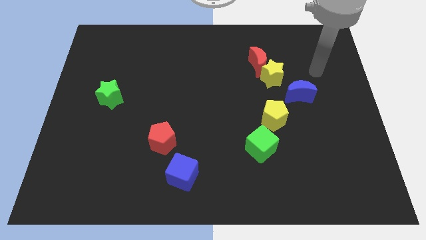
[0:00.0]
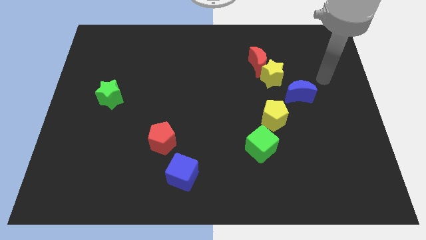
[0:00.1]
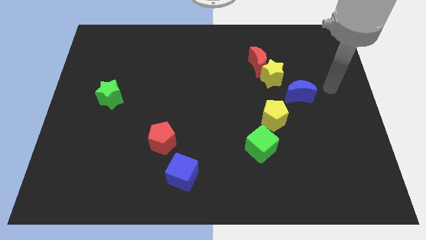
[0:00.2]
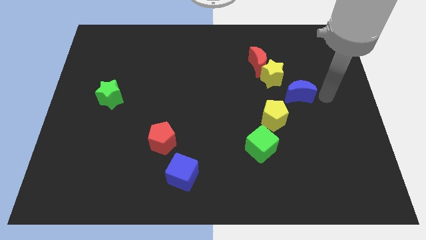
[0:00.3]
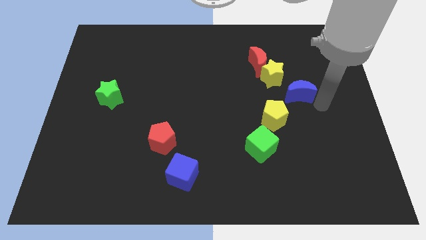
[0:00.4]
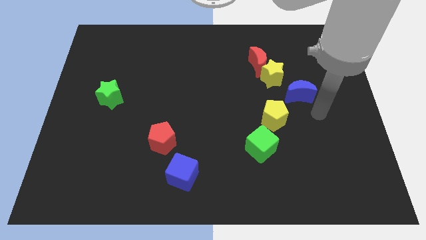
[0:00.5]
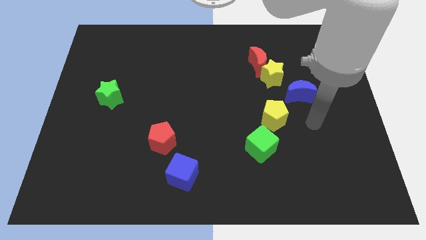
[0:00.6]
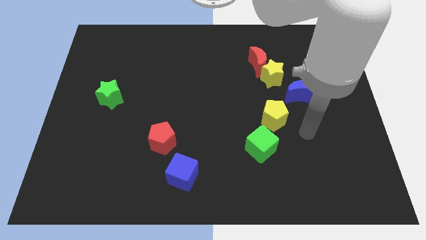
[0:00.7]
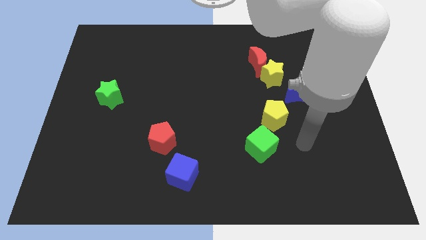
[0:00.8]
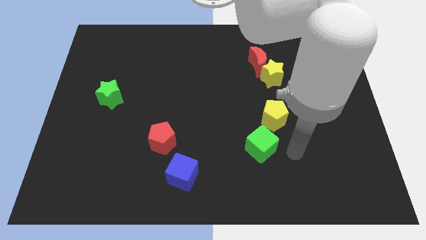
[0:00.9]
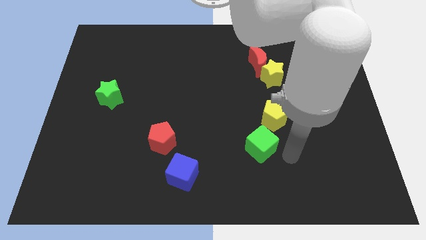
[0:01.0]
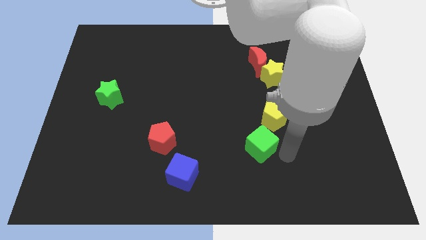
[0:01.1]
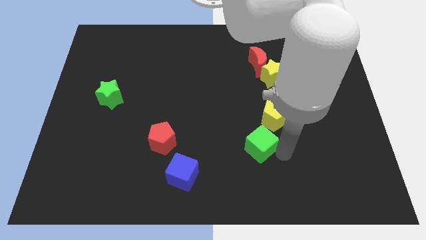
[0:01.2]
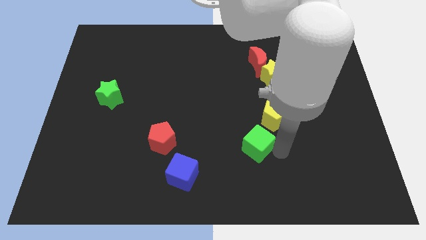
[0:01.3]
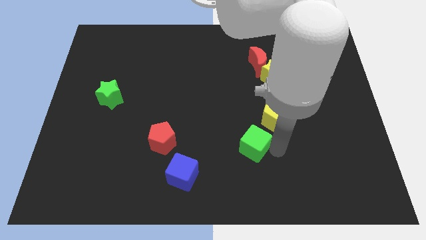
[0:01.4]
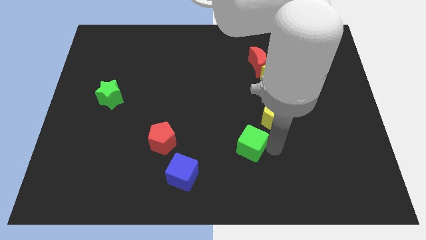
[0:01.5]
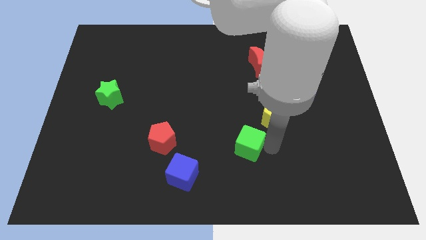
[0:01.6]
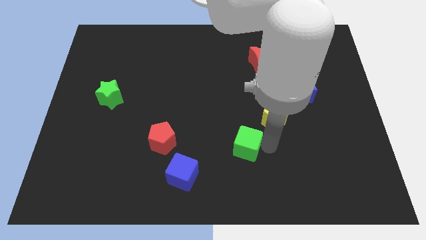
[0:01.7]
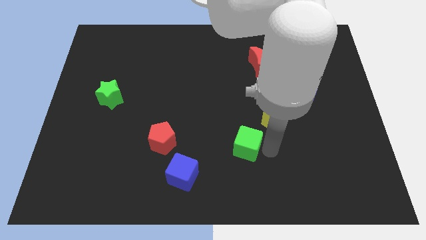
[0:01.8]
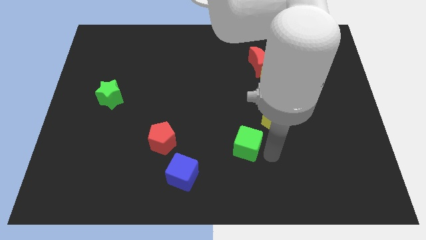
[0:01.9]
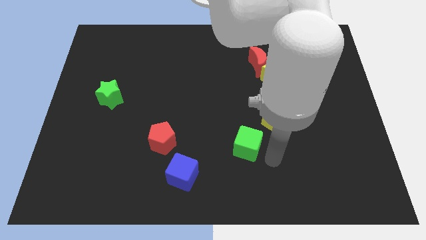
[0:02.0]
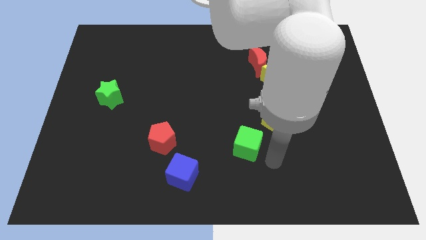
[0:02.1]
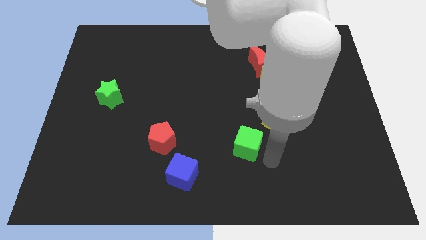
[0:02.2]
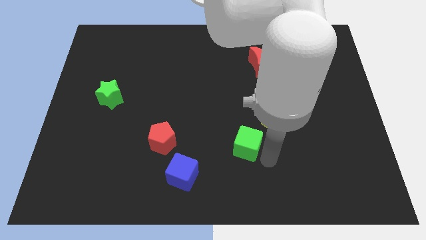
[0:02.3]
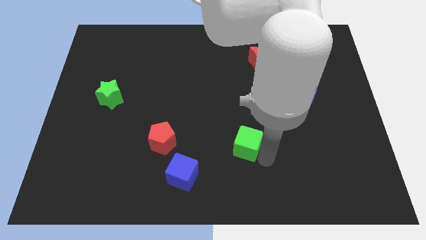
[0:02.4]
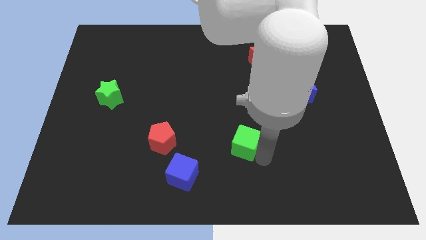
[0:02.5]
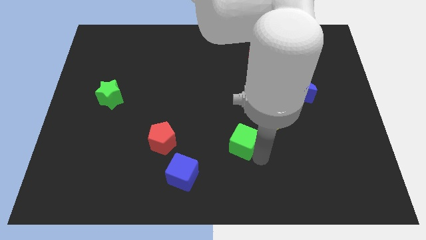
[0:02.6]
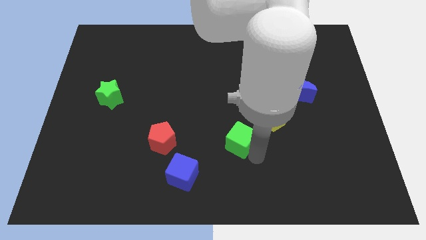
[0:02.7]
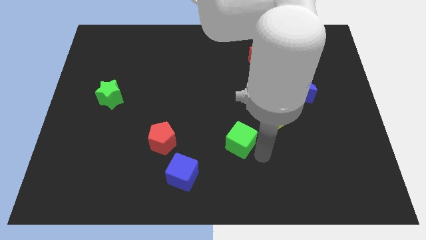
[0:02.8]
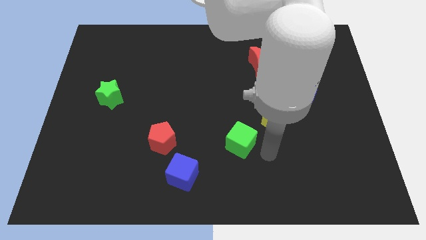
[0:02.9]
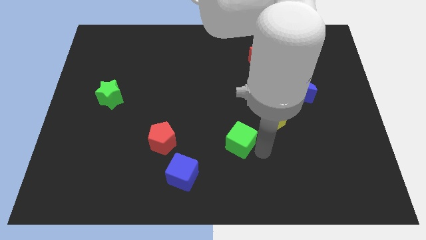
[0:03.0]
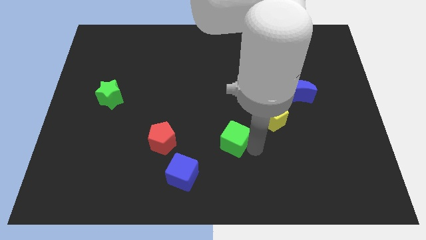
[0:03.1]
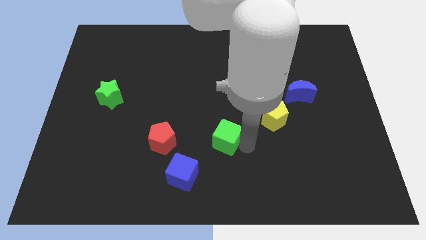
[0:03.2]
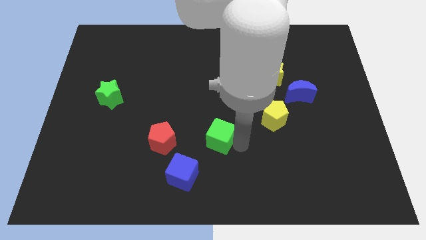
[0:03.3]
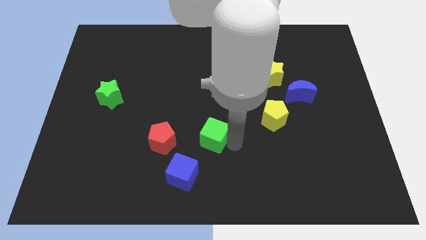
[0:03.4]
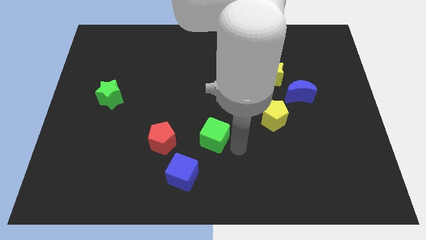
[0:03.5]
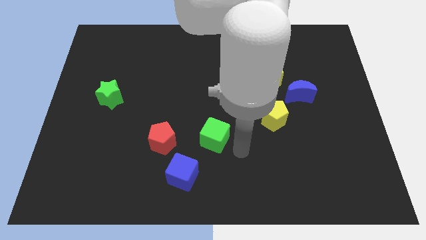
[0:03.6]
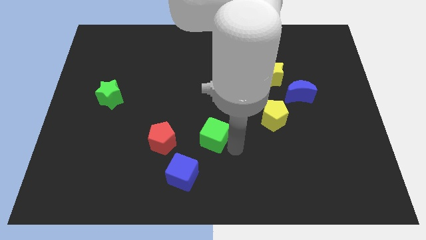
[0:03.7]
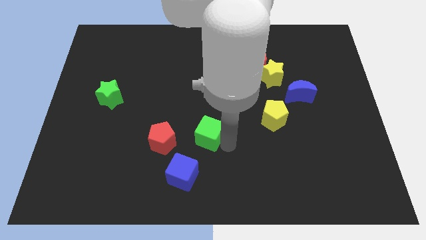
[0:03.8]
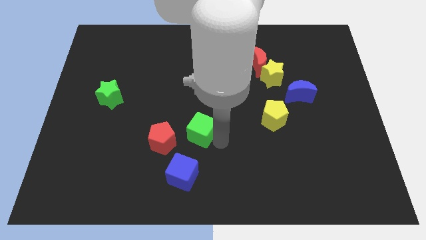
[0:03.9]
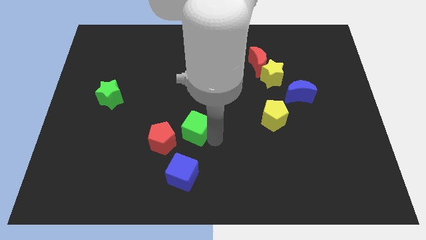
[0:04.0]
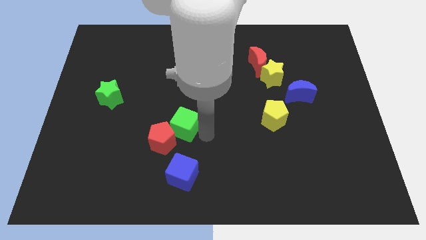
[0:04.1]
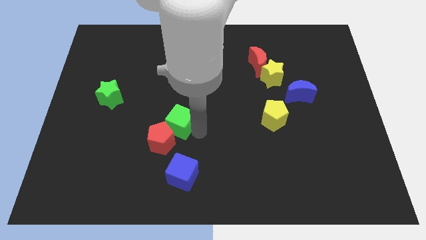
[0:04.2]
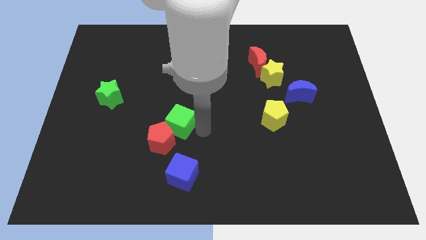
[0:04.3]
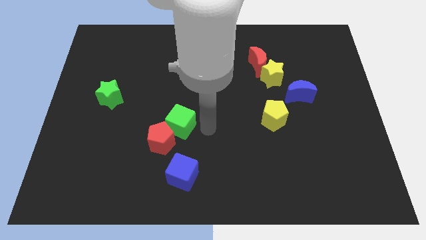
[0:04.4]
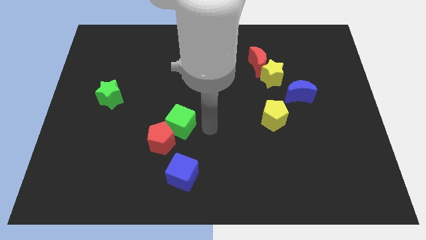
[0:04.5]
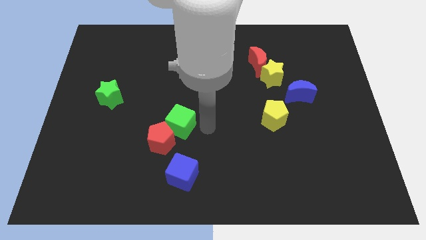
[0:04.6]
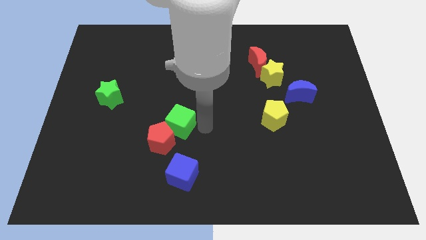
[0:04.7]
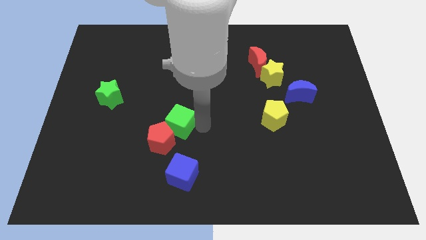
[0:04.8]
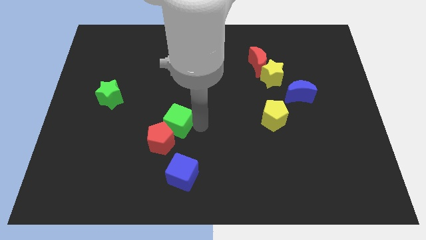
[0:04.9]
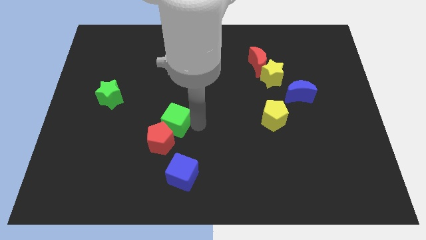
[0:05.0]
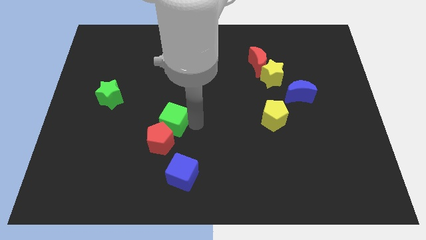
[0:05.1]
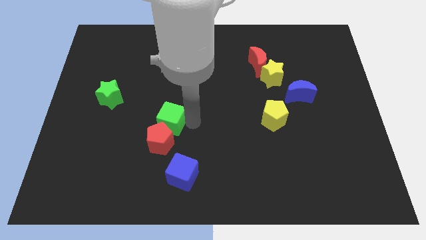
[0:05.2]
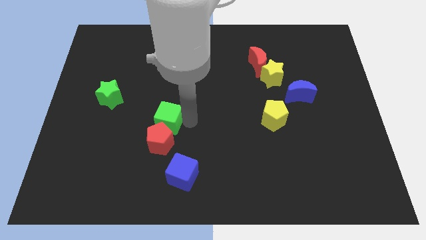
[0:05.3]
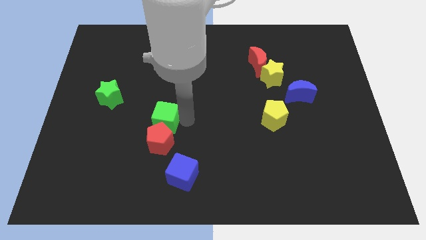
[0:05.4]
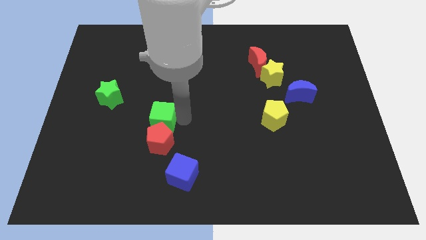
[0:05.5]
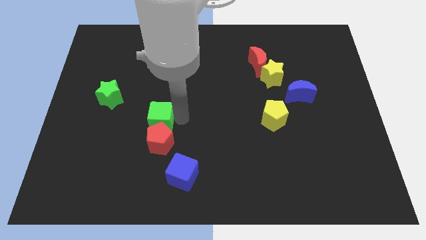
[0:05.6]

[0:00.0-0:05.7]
move the green cube to the left

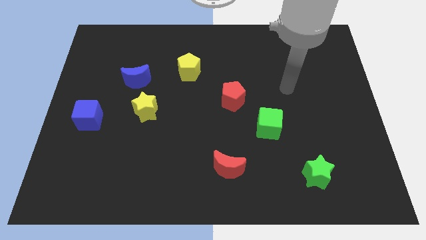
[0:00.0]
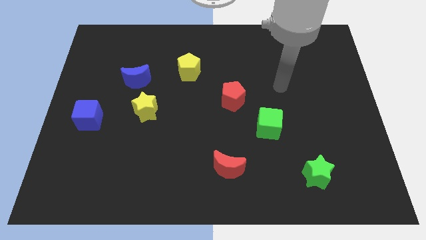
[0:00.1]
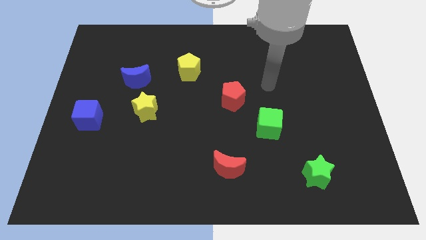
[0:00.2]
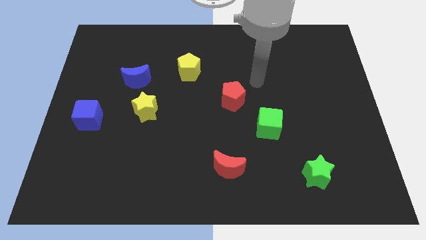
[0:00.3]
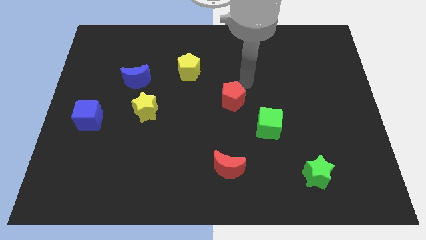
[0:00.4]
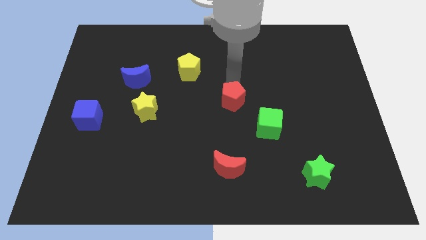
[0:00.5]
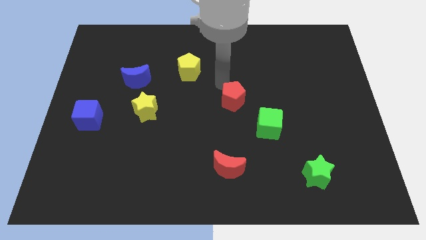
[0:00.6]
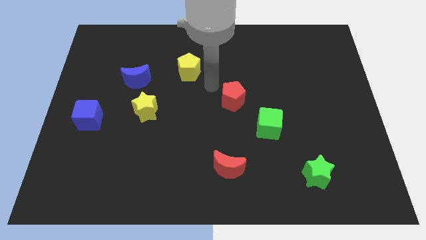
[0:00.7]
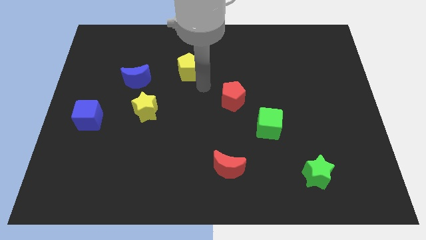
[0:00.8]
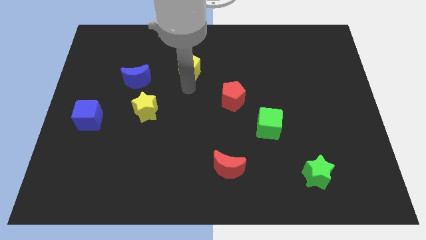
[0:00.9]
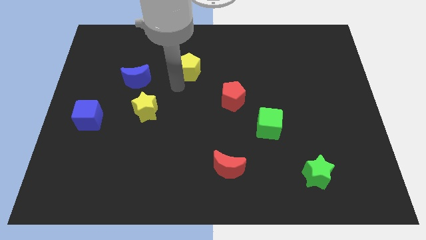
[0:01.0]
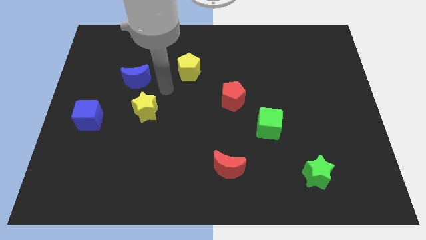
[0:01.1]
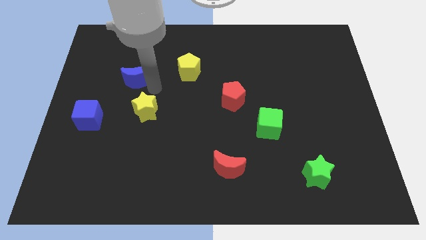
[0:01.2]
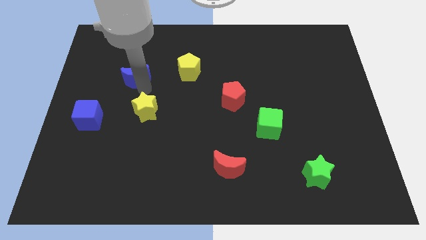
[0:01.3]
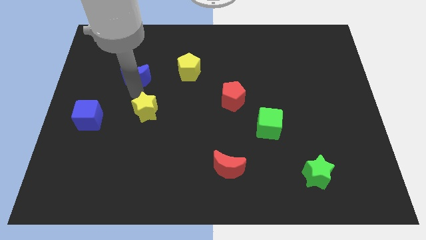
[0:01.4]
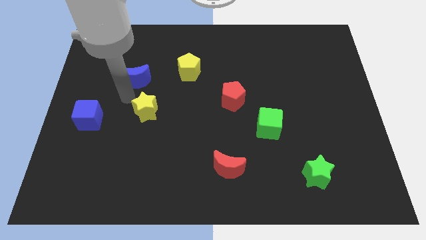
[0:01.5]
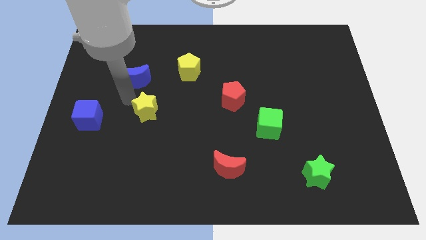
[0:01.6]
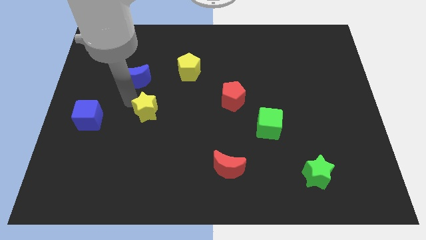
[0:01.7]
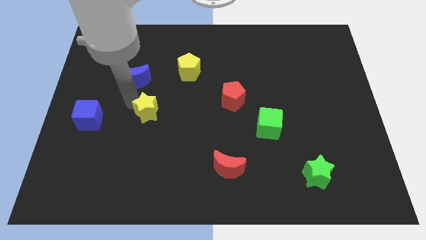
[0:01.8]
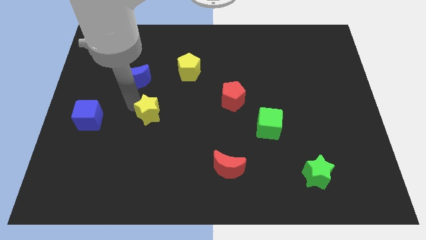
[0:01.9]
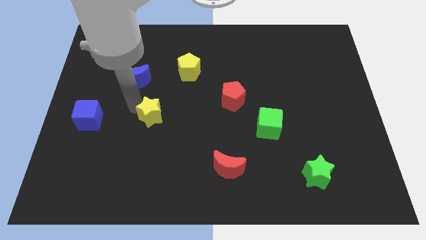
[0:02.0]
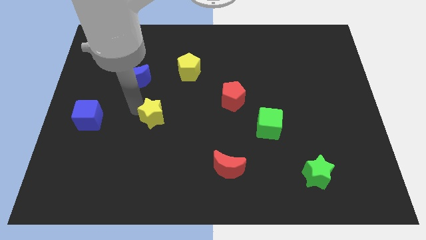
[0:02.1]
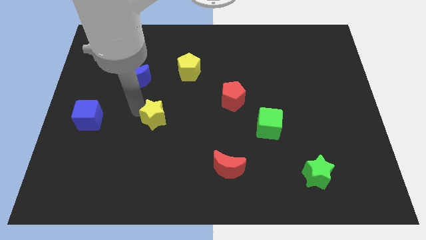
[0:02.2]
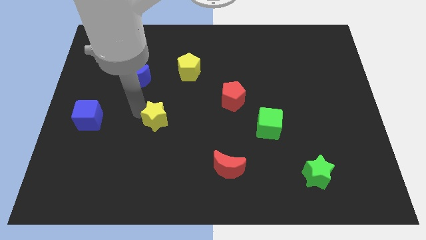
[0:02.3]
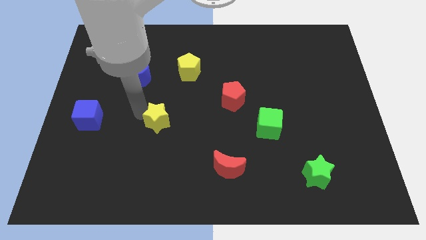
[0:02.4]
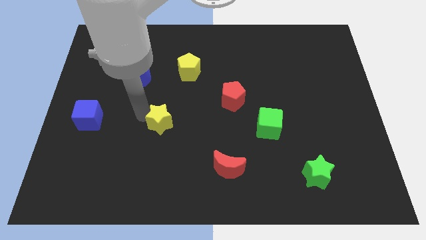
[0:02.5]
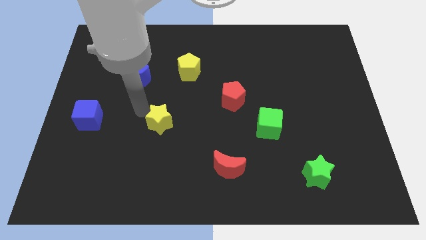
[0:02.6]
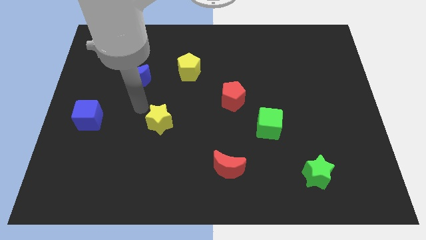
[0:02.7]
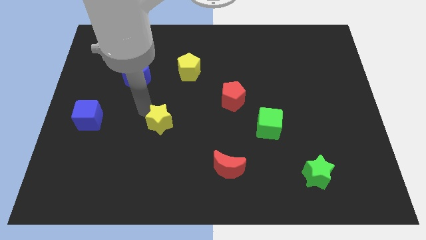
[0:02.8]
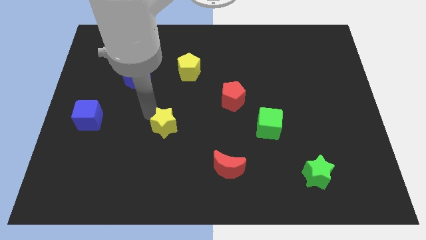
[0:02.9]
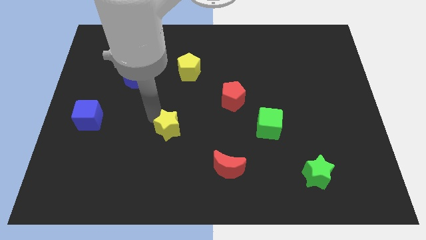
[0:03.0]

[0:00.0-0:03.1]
slide the yellow star a bit down and then right
